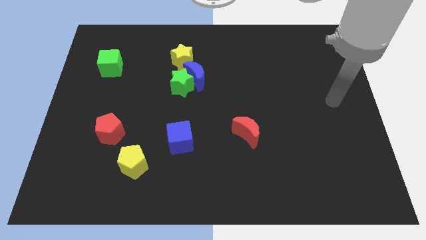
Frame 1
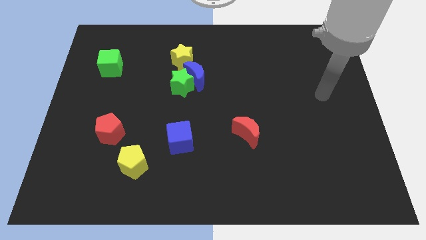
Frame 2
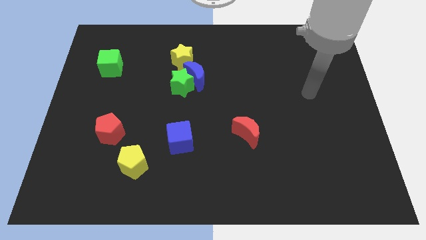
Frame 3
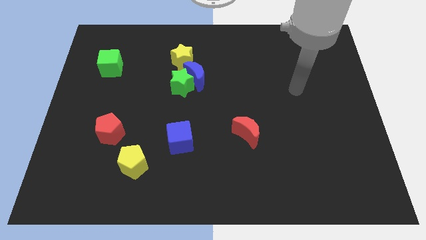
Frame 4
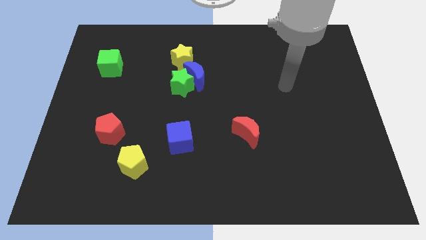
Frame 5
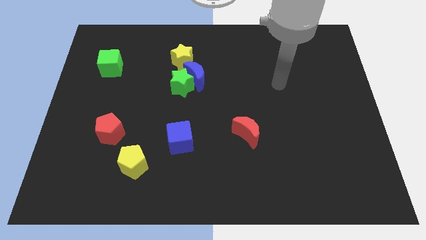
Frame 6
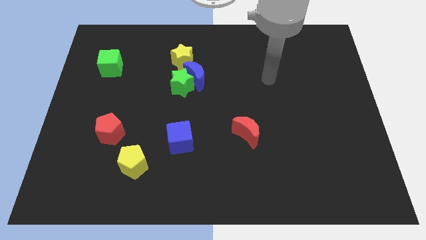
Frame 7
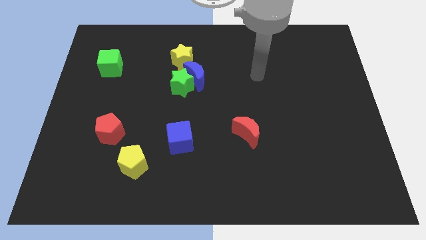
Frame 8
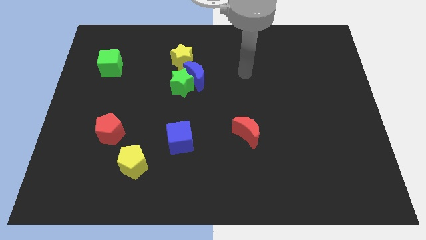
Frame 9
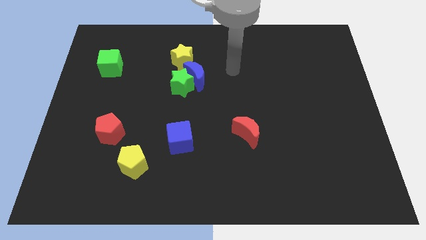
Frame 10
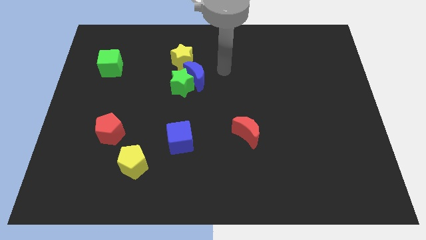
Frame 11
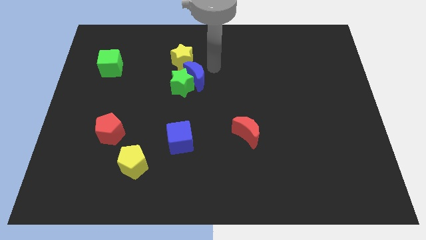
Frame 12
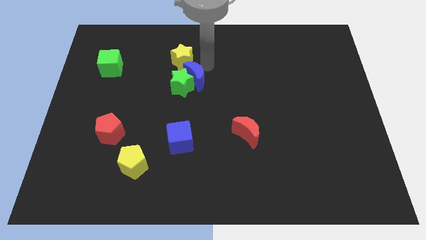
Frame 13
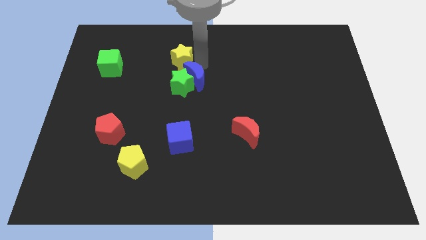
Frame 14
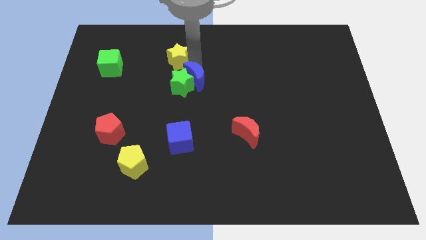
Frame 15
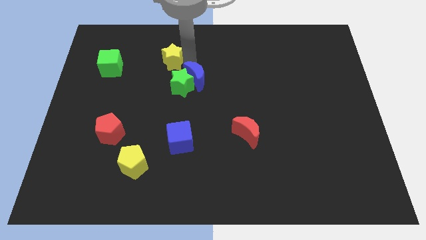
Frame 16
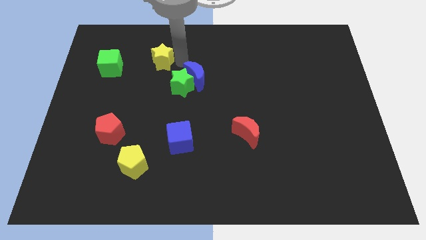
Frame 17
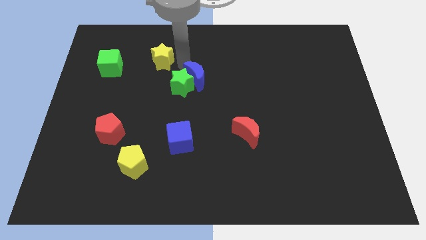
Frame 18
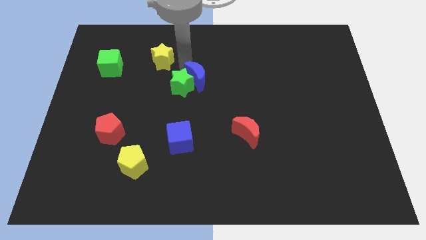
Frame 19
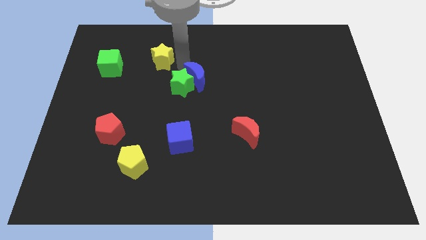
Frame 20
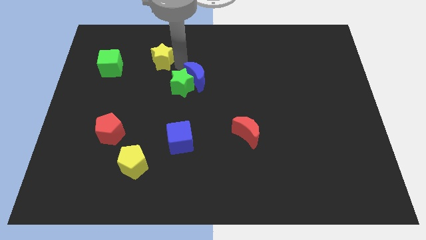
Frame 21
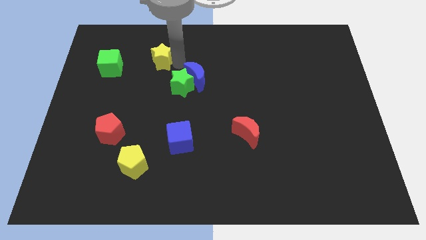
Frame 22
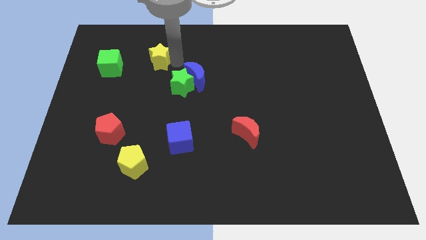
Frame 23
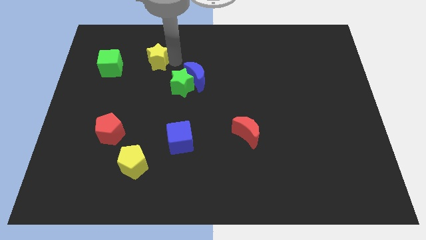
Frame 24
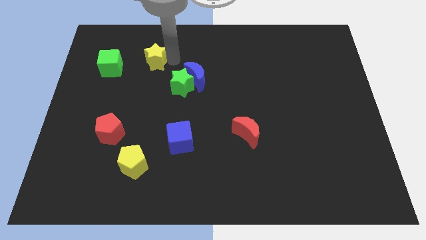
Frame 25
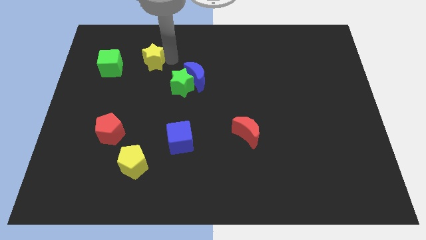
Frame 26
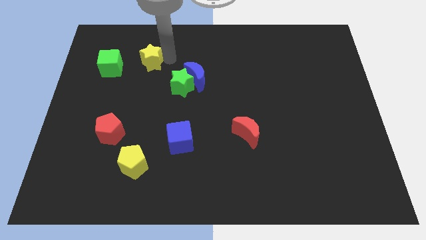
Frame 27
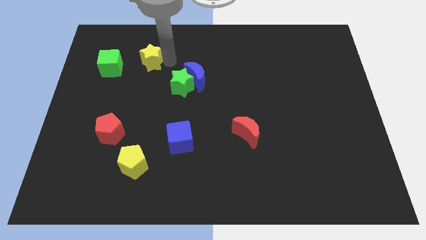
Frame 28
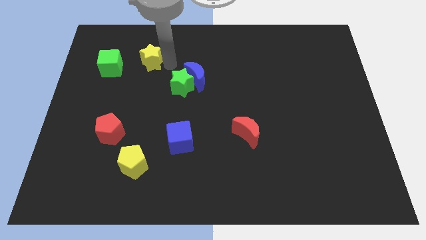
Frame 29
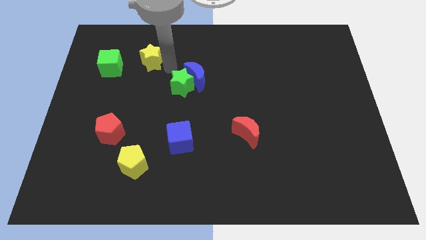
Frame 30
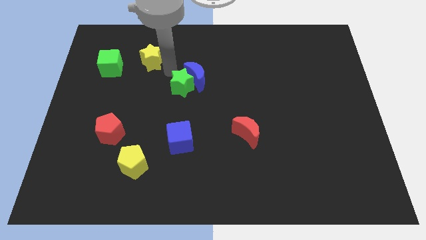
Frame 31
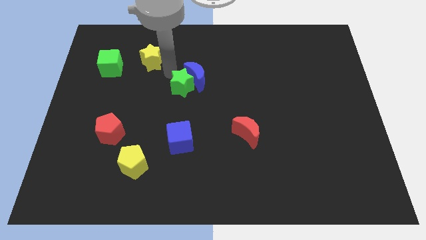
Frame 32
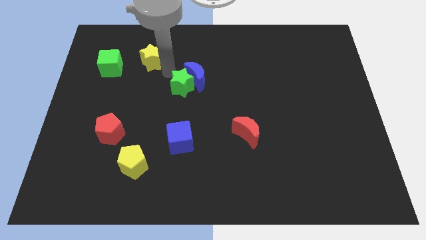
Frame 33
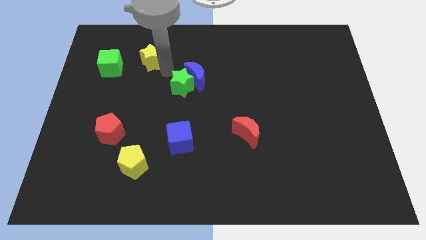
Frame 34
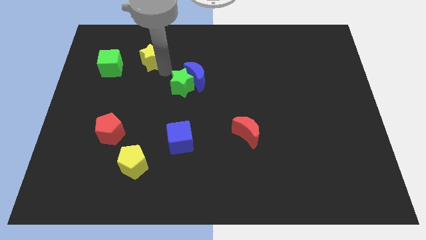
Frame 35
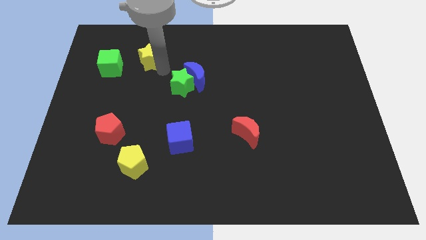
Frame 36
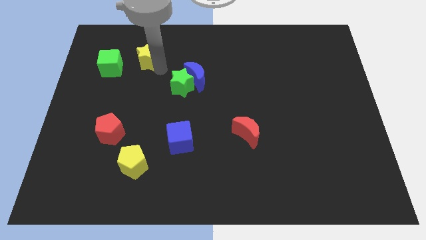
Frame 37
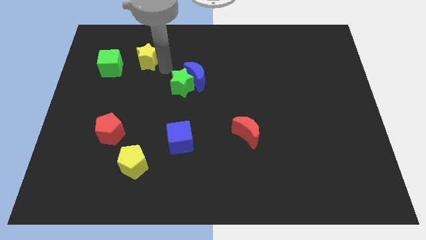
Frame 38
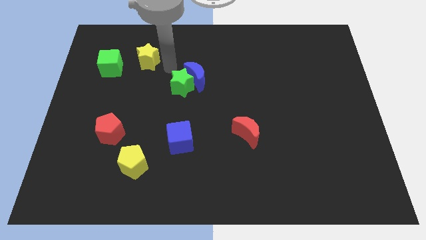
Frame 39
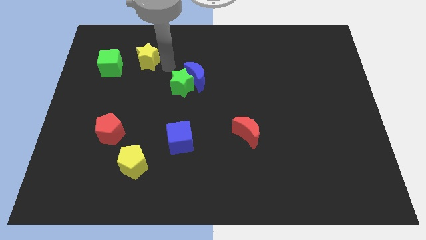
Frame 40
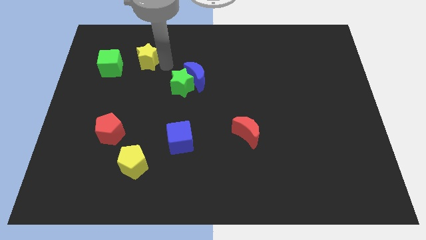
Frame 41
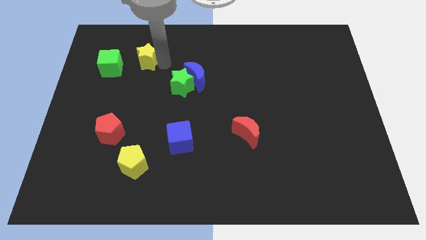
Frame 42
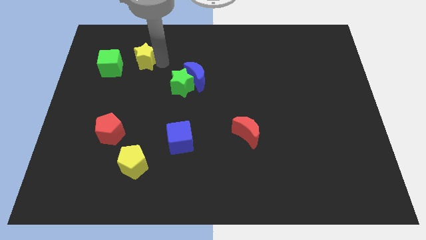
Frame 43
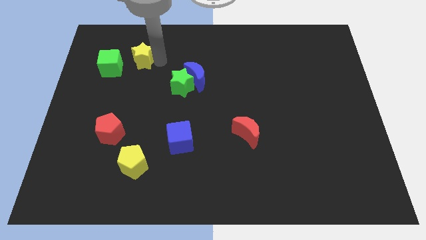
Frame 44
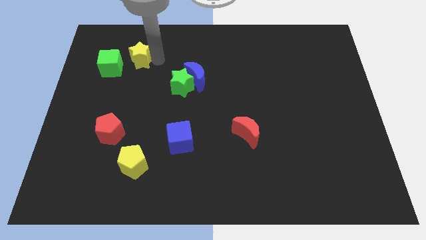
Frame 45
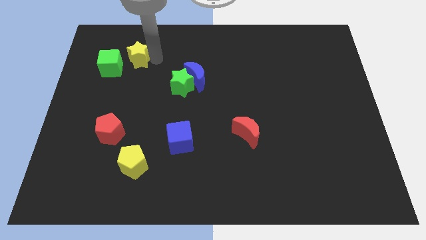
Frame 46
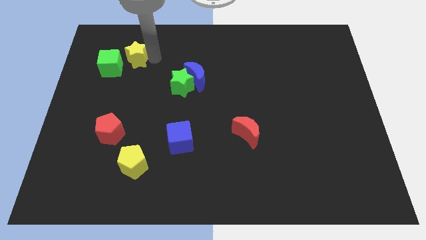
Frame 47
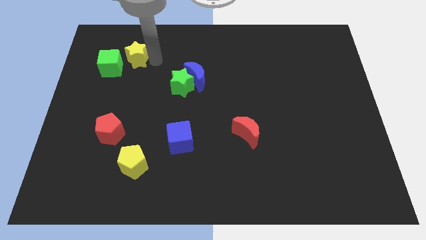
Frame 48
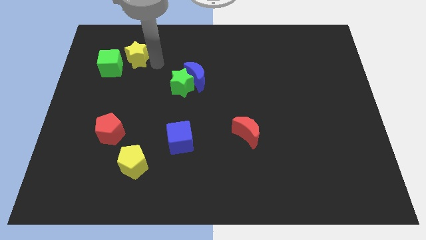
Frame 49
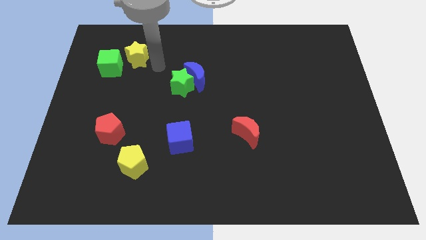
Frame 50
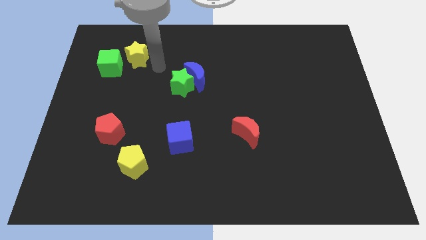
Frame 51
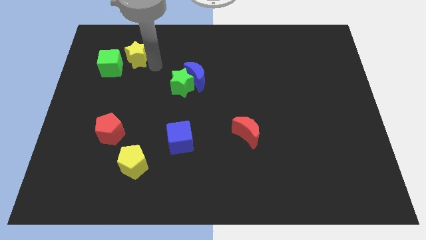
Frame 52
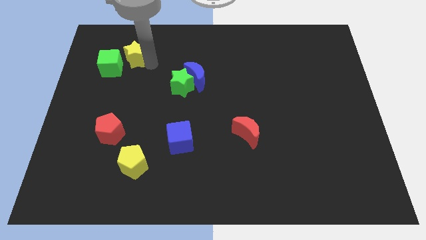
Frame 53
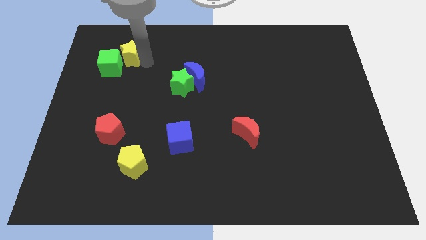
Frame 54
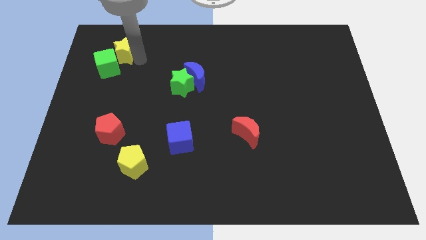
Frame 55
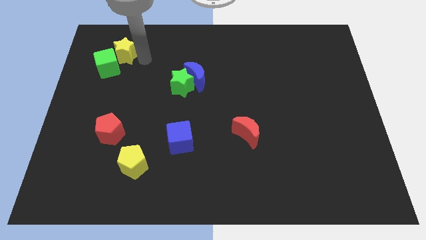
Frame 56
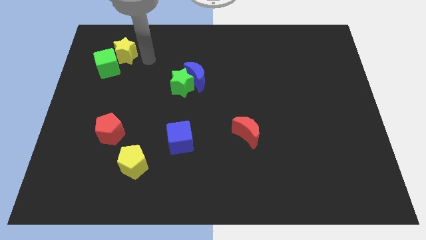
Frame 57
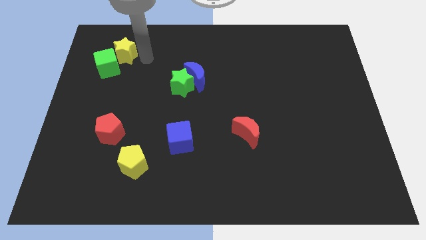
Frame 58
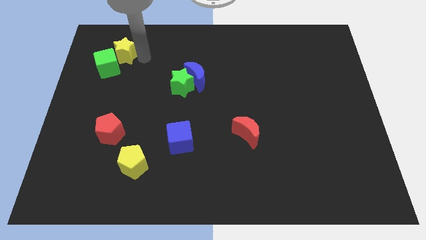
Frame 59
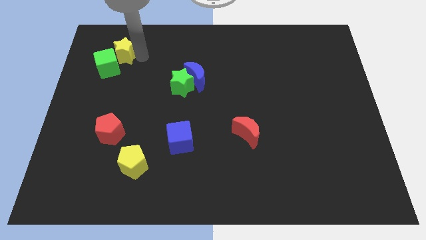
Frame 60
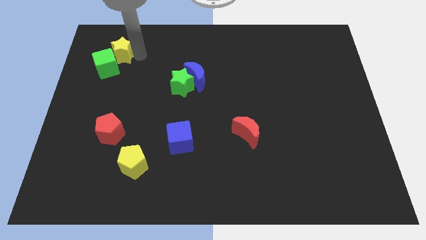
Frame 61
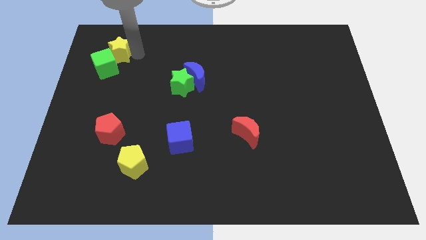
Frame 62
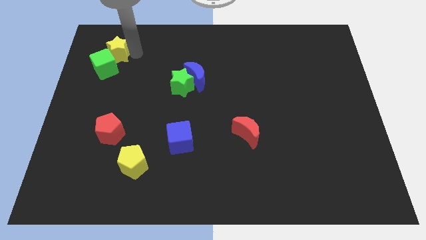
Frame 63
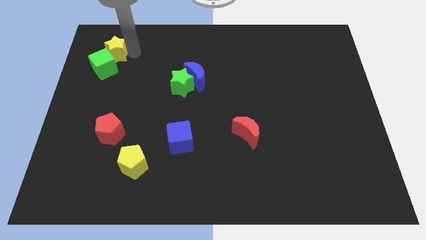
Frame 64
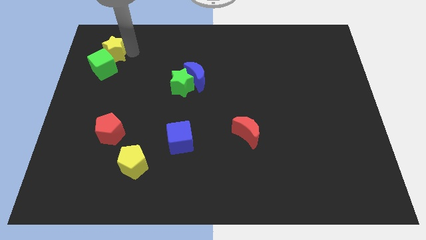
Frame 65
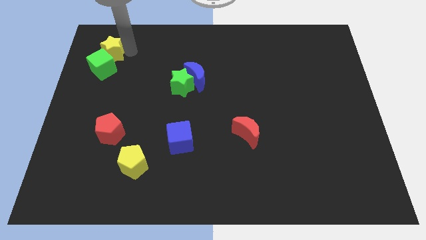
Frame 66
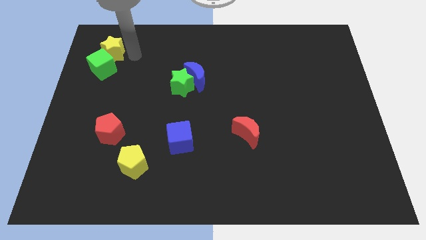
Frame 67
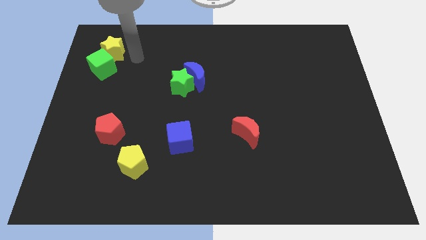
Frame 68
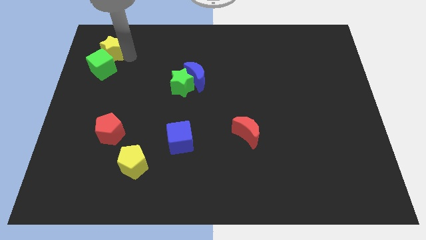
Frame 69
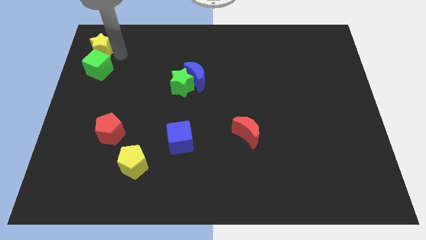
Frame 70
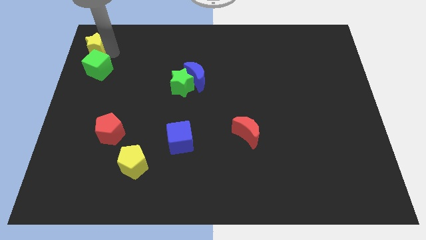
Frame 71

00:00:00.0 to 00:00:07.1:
push the yellow star to the top left corner
